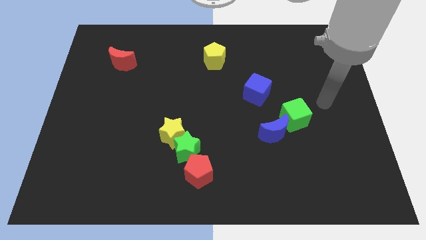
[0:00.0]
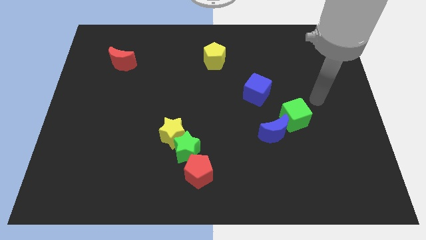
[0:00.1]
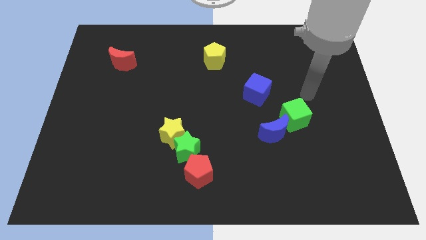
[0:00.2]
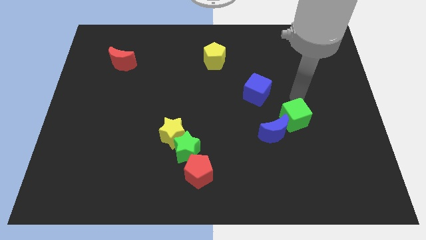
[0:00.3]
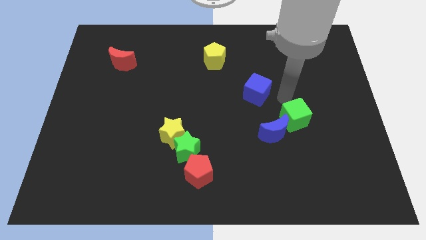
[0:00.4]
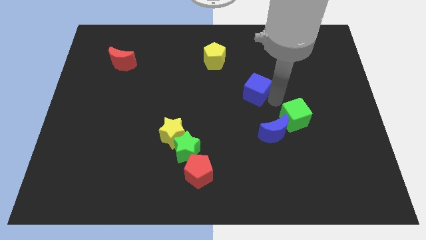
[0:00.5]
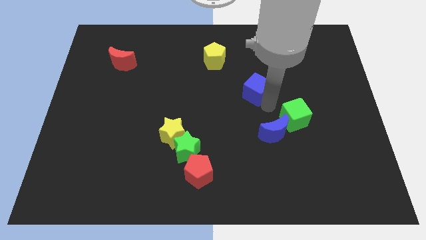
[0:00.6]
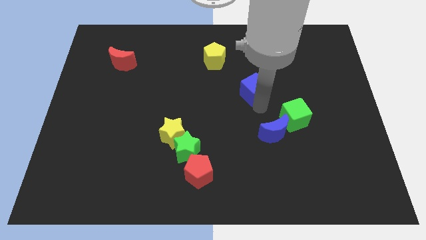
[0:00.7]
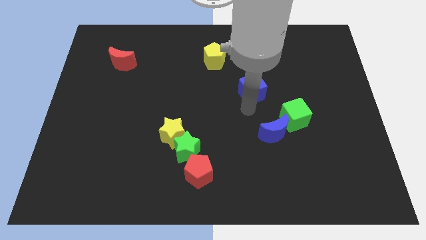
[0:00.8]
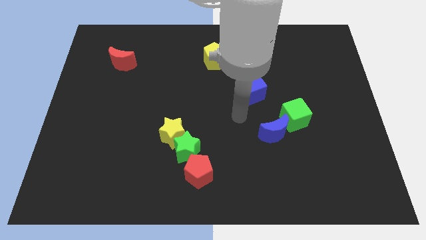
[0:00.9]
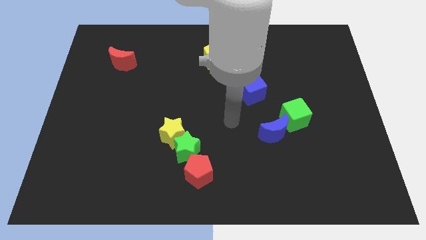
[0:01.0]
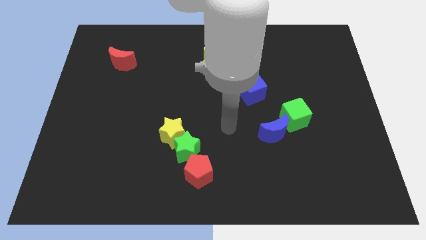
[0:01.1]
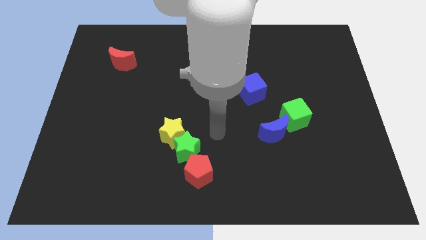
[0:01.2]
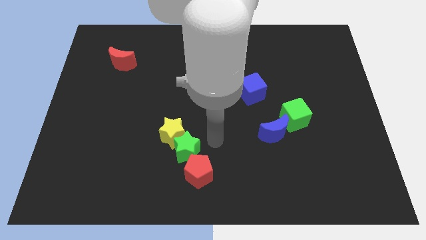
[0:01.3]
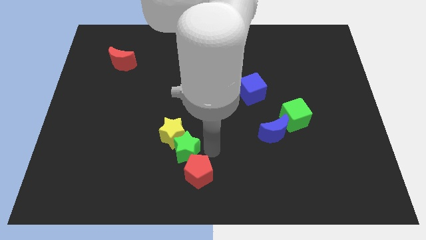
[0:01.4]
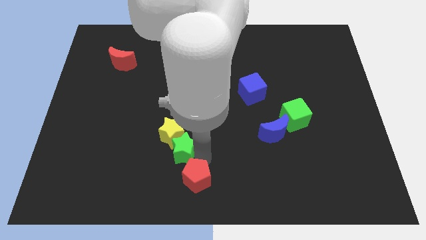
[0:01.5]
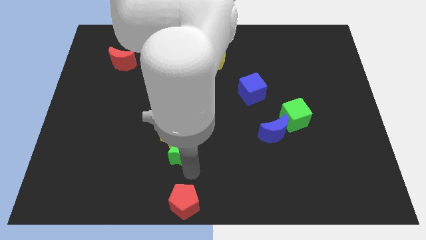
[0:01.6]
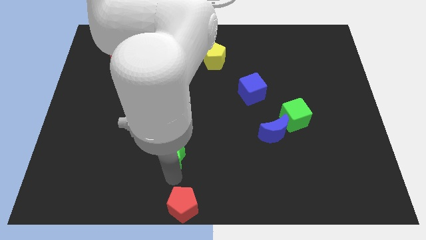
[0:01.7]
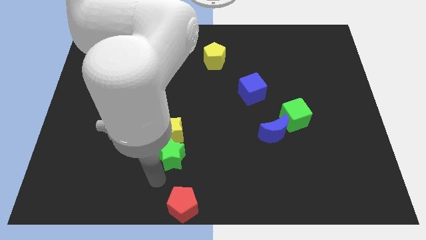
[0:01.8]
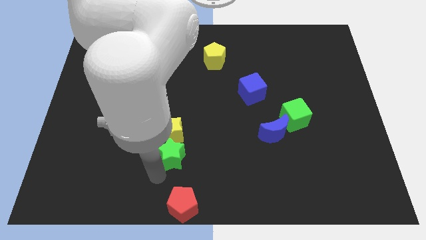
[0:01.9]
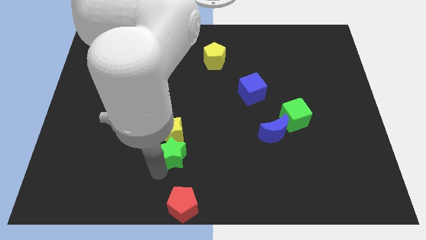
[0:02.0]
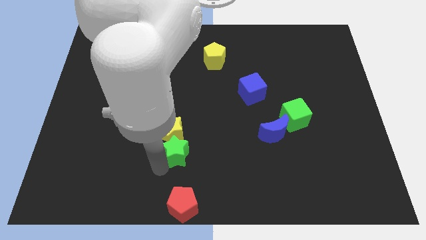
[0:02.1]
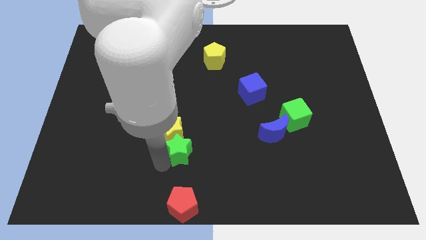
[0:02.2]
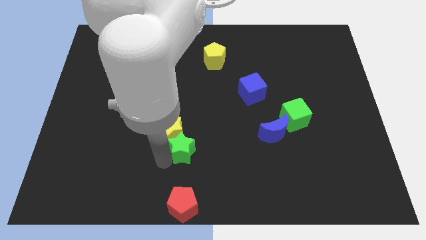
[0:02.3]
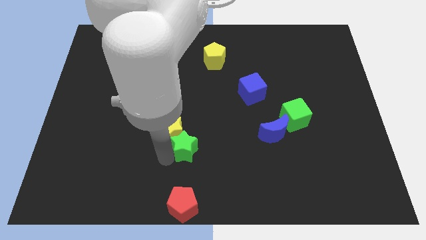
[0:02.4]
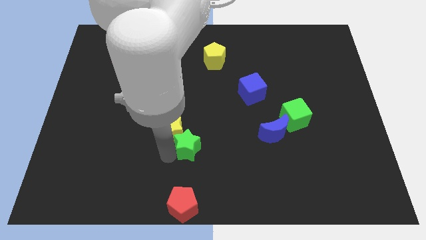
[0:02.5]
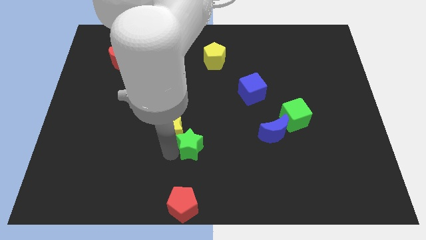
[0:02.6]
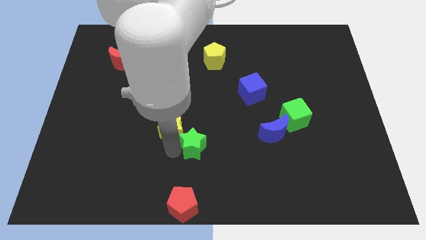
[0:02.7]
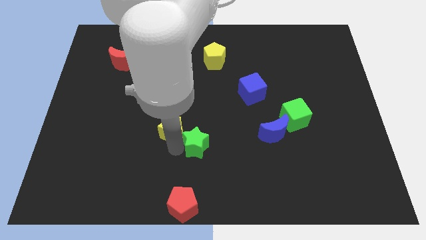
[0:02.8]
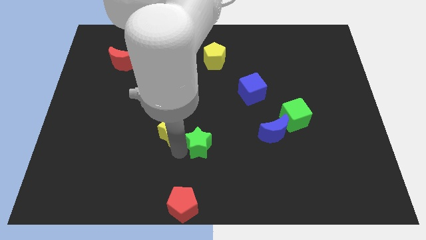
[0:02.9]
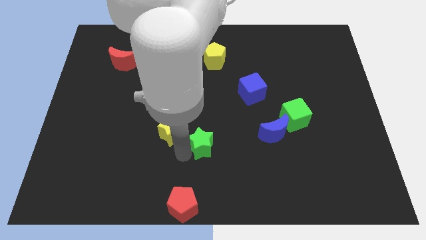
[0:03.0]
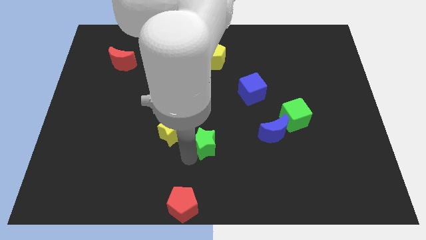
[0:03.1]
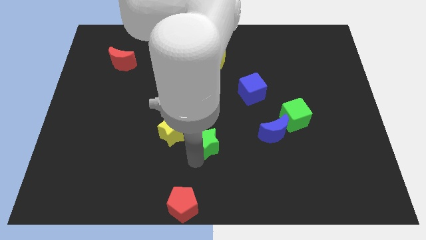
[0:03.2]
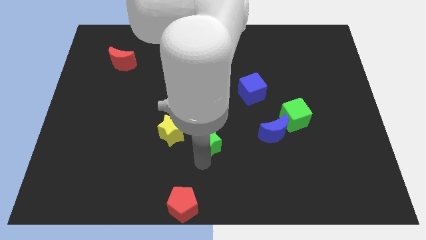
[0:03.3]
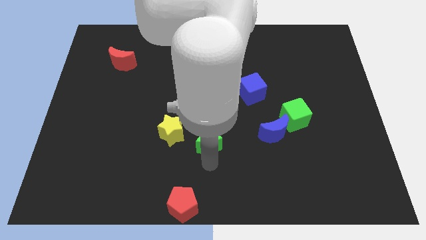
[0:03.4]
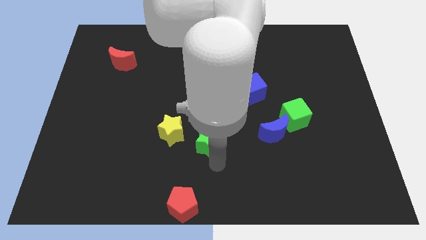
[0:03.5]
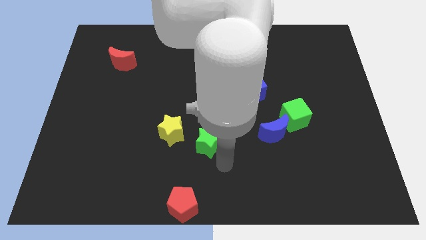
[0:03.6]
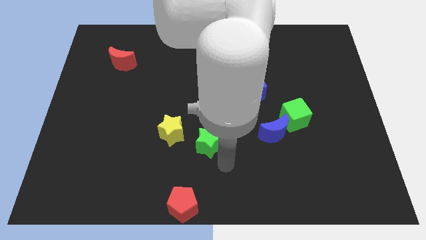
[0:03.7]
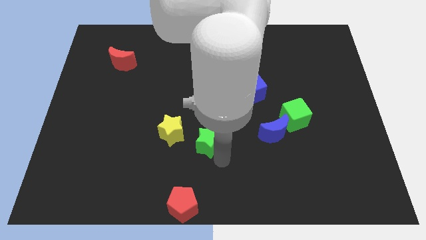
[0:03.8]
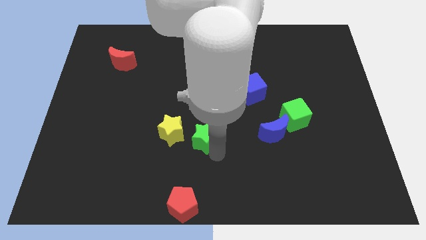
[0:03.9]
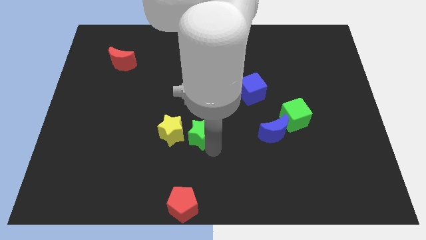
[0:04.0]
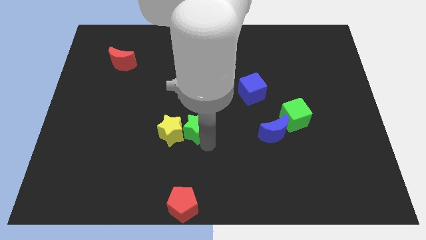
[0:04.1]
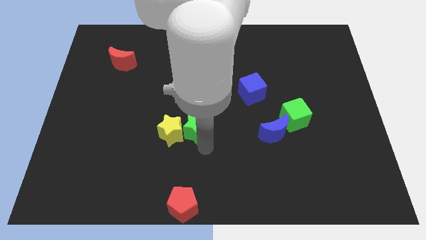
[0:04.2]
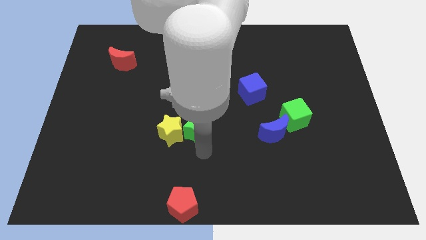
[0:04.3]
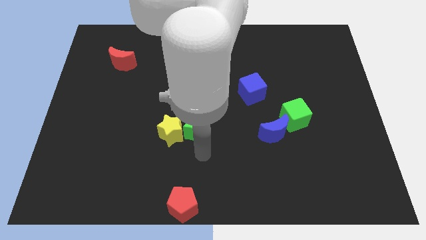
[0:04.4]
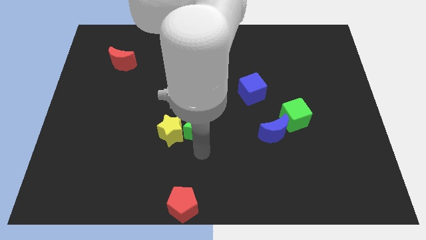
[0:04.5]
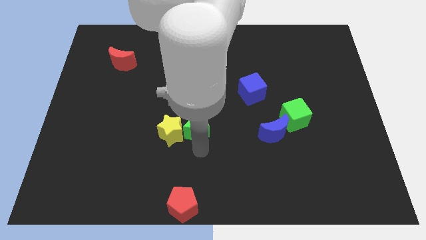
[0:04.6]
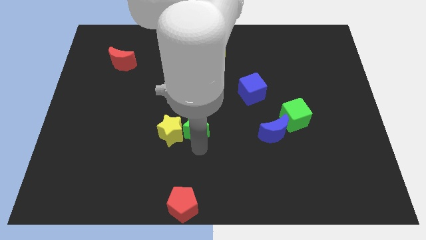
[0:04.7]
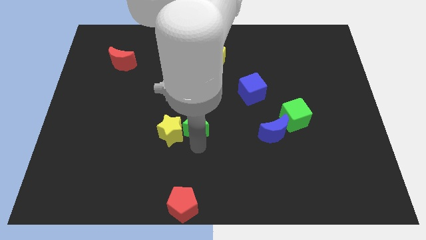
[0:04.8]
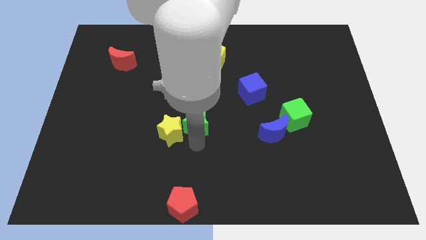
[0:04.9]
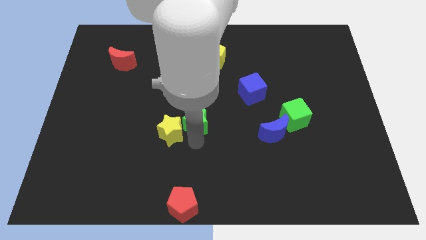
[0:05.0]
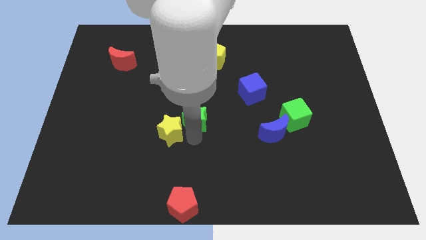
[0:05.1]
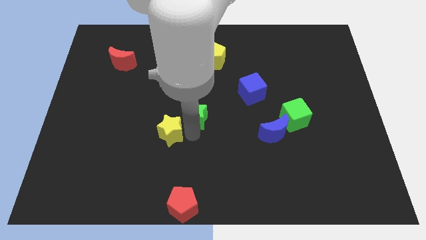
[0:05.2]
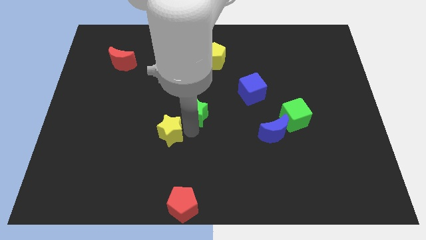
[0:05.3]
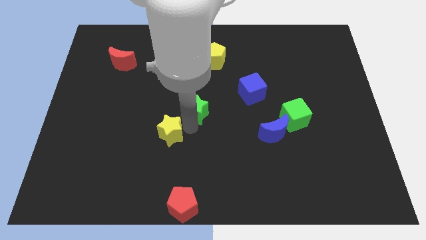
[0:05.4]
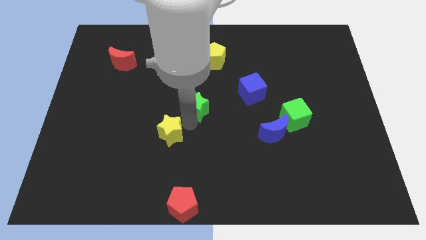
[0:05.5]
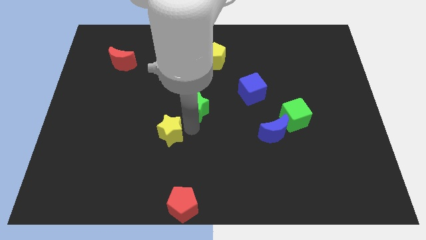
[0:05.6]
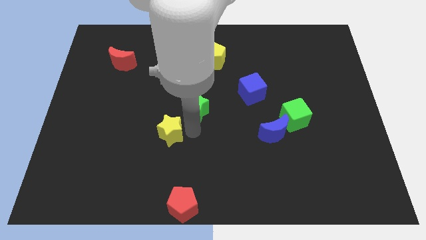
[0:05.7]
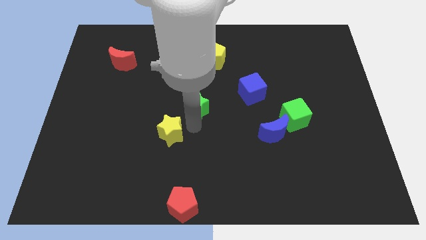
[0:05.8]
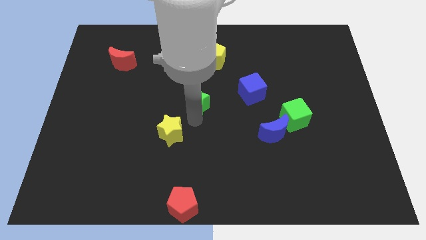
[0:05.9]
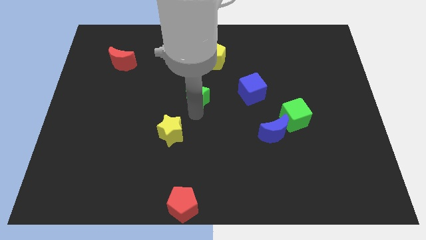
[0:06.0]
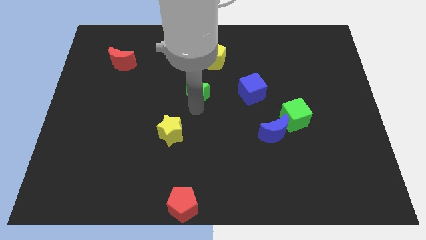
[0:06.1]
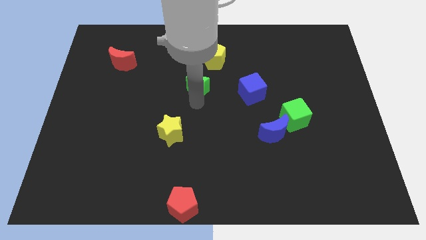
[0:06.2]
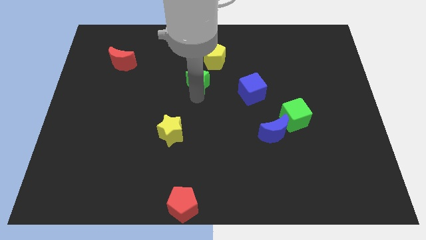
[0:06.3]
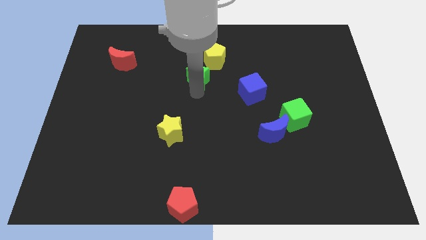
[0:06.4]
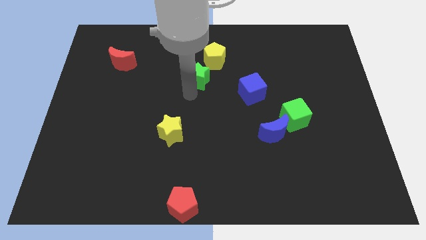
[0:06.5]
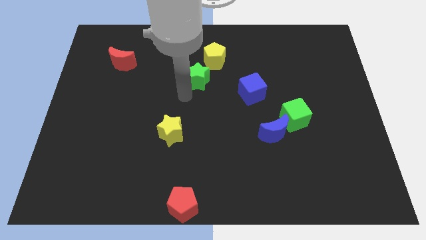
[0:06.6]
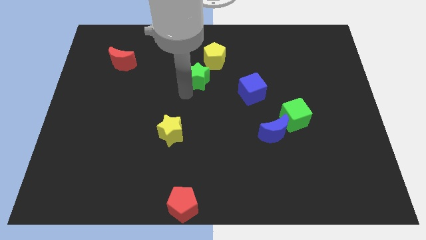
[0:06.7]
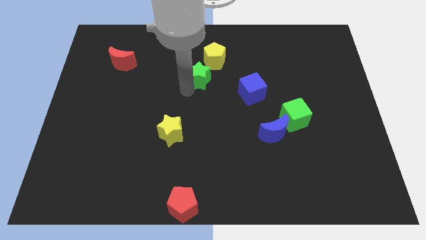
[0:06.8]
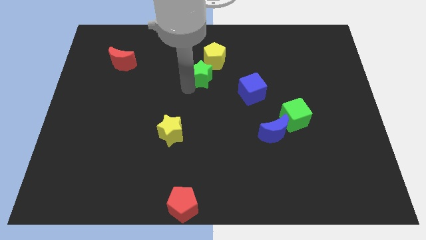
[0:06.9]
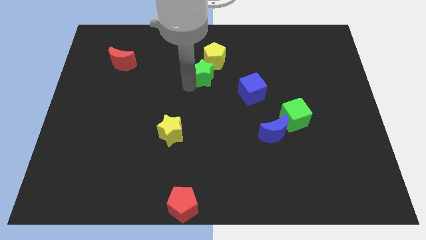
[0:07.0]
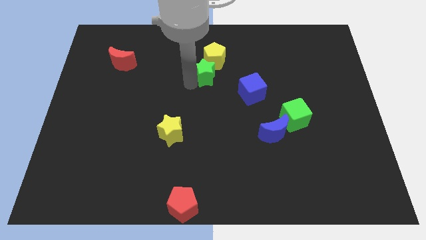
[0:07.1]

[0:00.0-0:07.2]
move the green star to the yellow pentagon

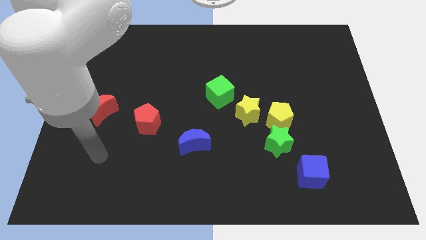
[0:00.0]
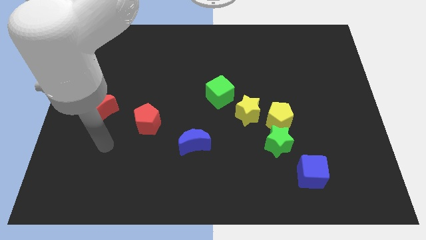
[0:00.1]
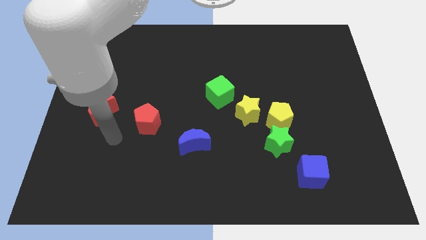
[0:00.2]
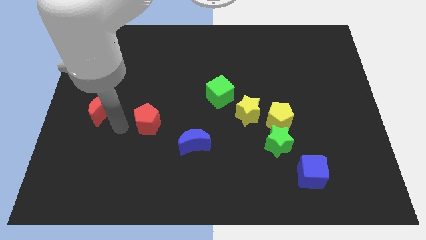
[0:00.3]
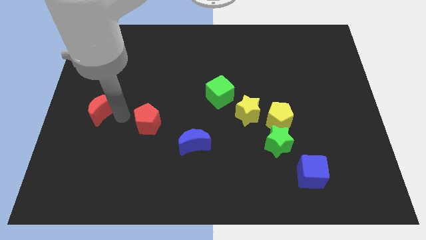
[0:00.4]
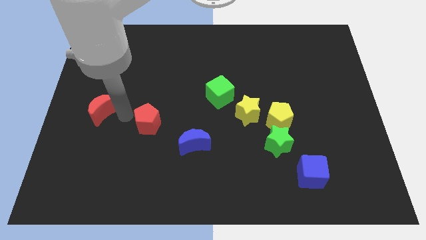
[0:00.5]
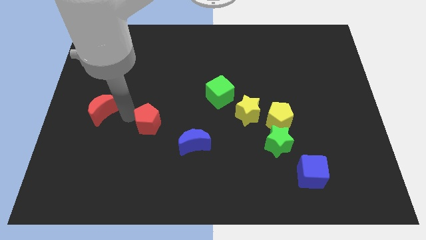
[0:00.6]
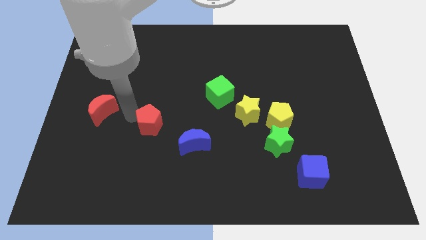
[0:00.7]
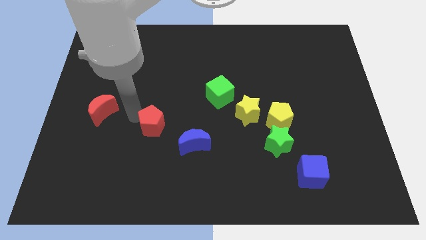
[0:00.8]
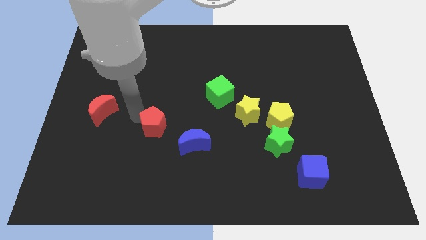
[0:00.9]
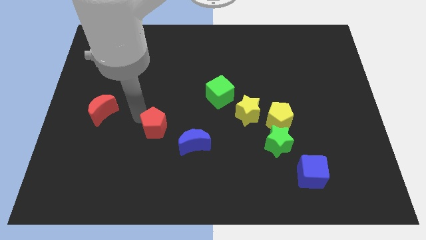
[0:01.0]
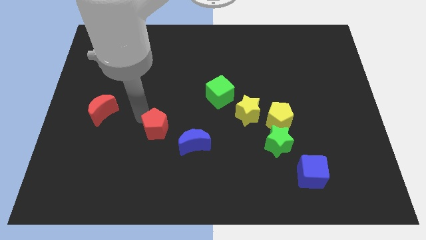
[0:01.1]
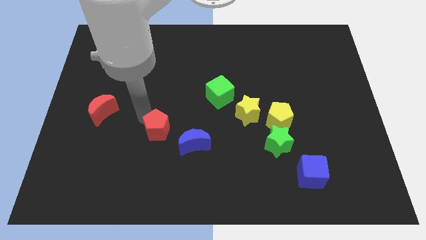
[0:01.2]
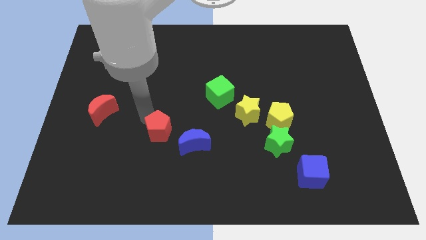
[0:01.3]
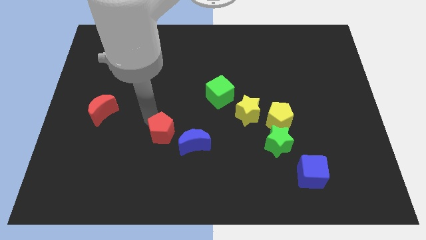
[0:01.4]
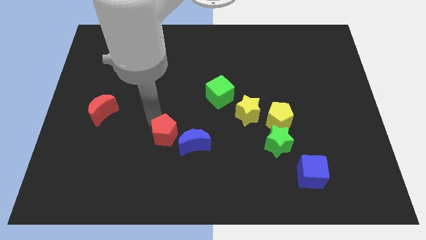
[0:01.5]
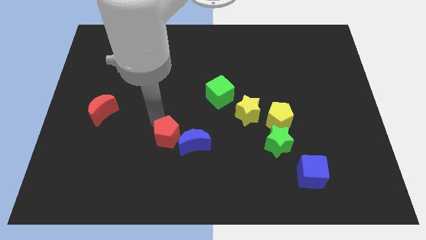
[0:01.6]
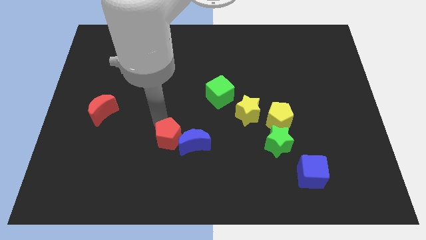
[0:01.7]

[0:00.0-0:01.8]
move the red pentagon towards the blue moon
